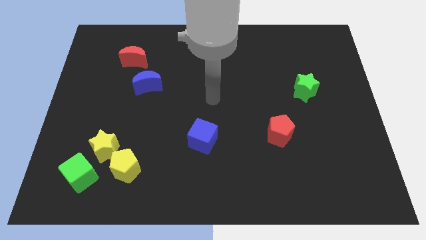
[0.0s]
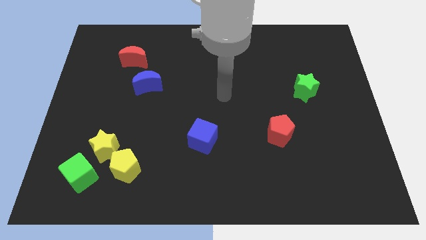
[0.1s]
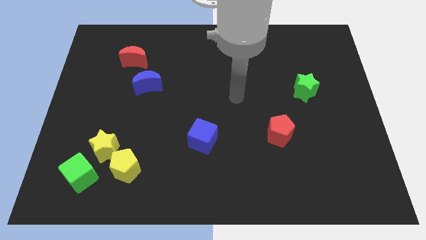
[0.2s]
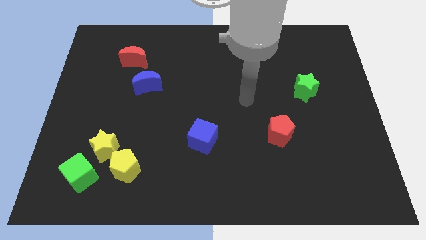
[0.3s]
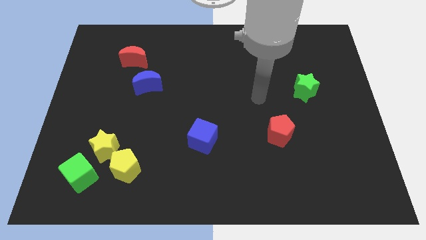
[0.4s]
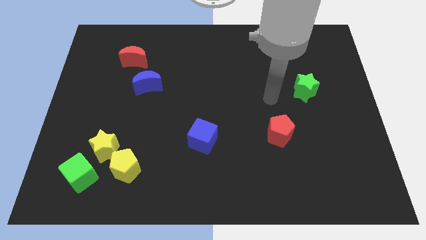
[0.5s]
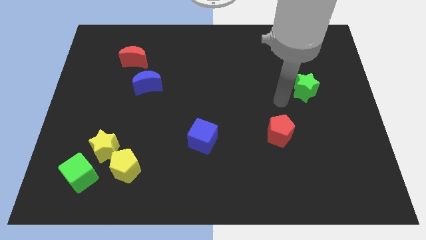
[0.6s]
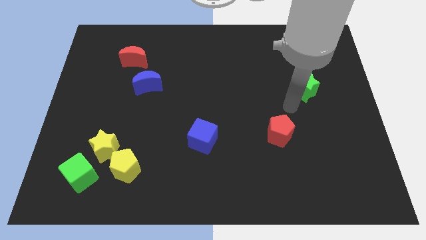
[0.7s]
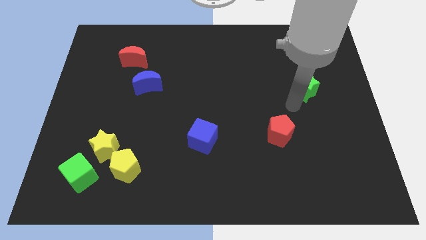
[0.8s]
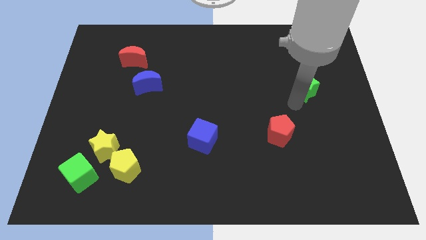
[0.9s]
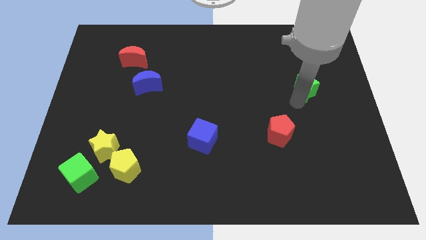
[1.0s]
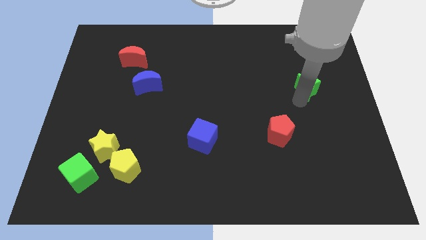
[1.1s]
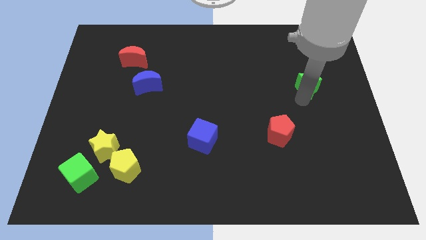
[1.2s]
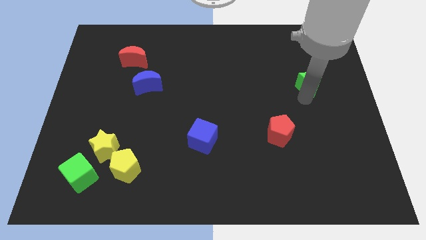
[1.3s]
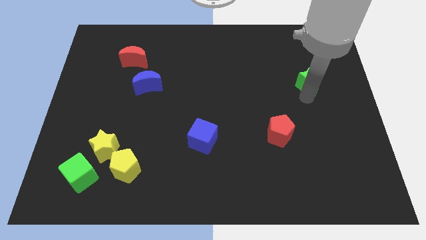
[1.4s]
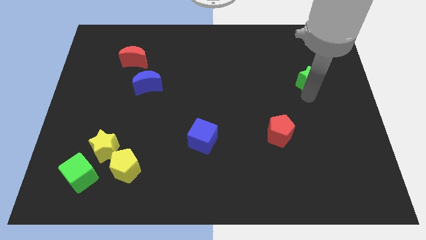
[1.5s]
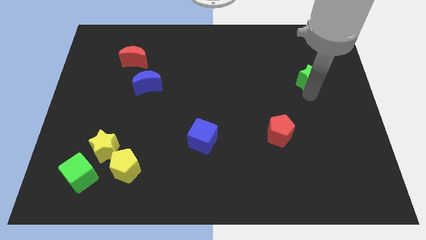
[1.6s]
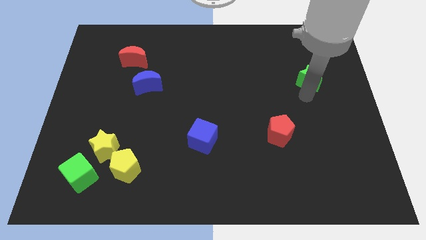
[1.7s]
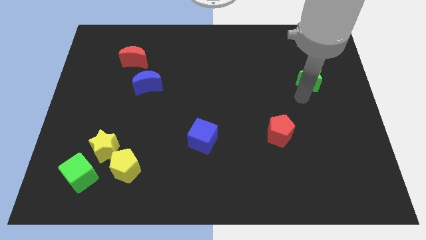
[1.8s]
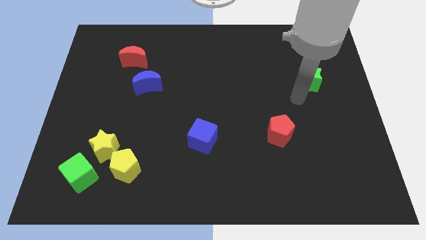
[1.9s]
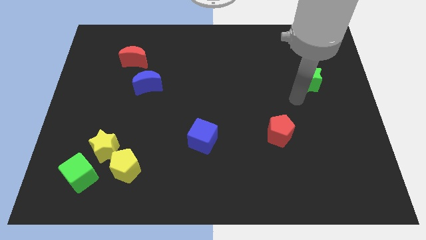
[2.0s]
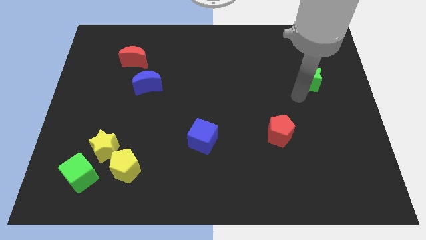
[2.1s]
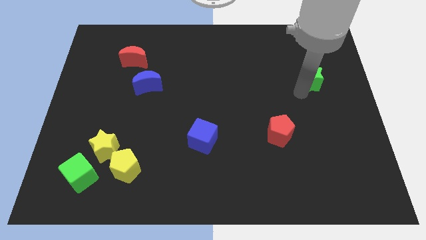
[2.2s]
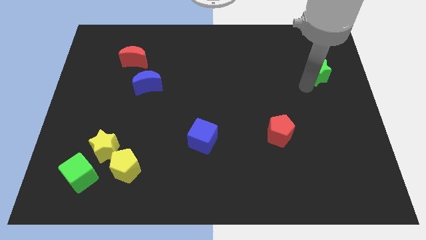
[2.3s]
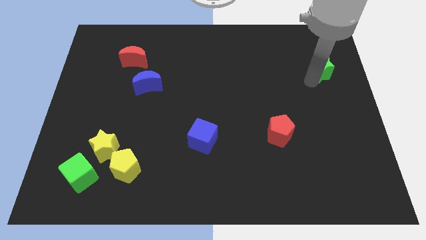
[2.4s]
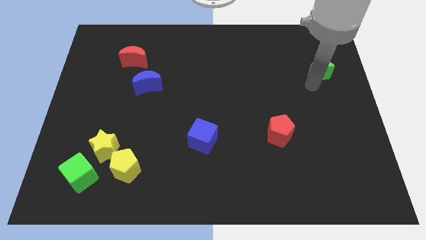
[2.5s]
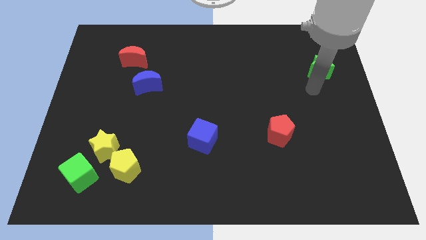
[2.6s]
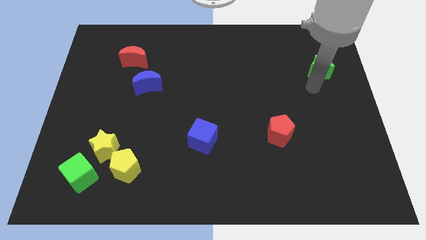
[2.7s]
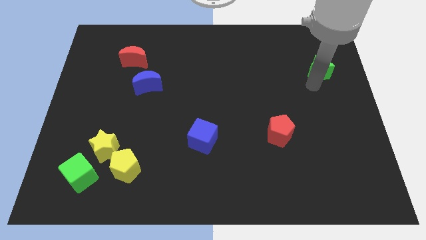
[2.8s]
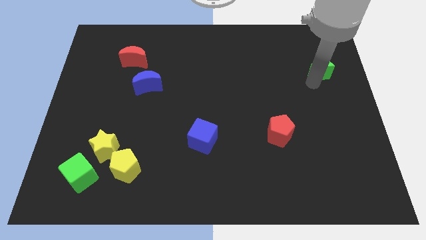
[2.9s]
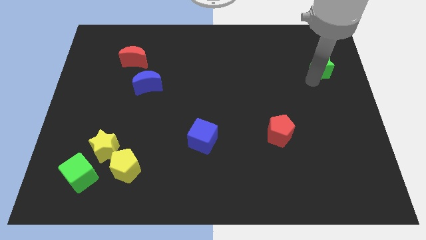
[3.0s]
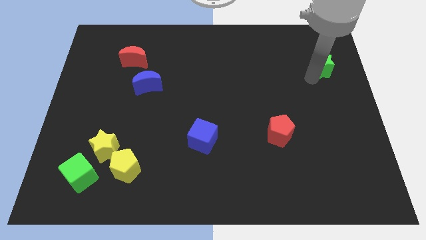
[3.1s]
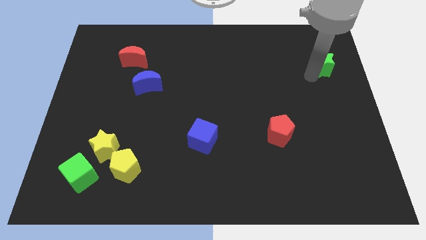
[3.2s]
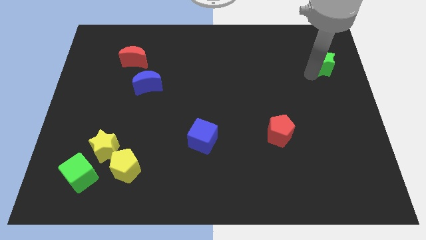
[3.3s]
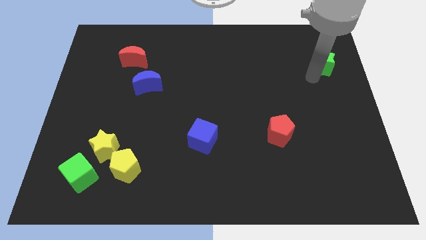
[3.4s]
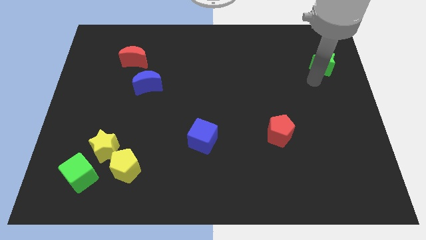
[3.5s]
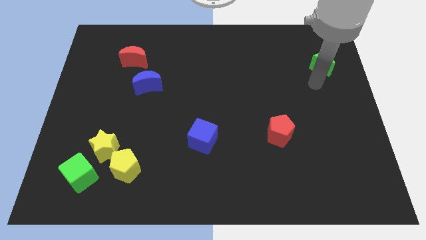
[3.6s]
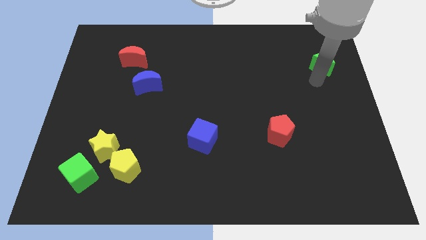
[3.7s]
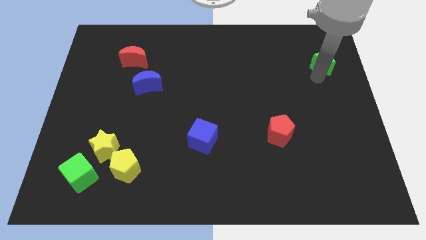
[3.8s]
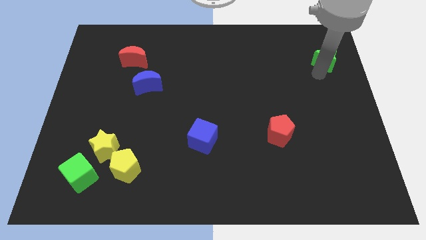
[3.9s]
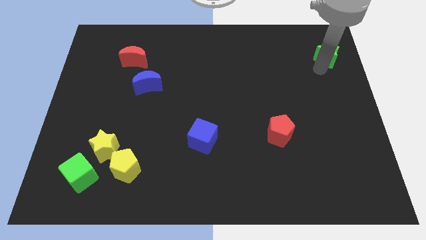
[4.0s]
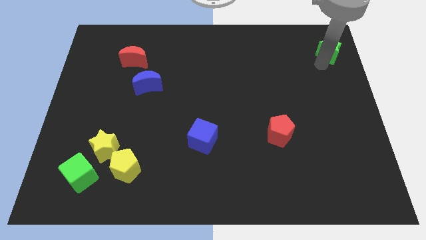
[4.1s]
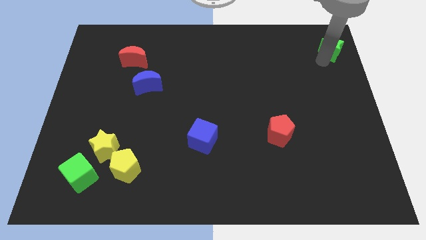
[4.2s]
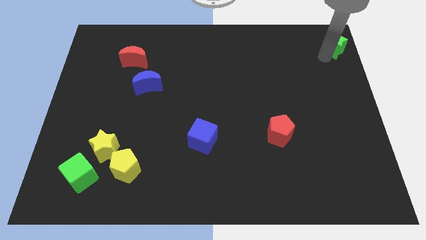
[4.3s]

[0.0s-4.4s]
slide the green star to the upper right corner

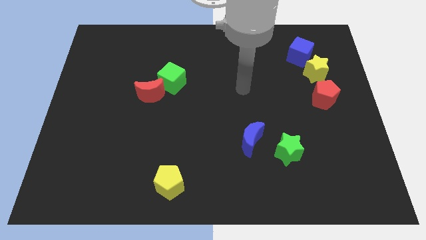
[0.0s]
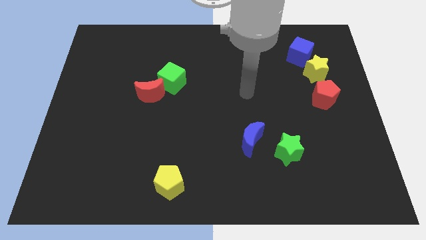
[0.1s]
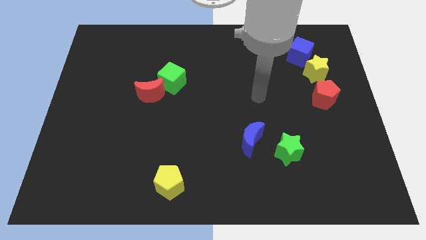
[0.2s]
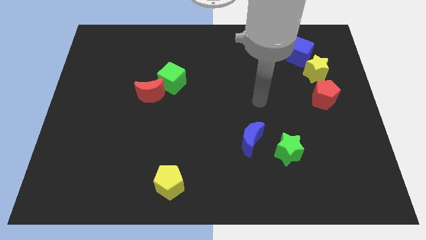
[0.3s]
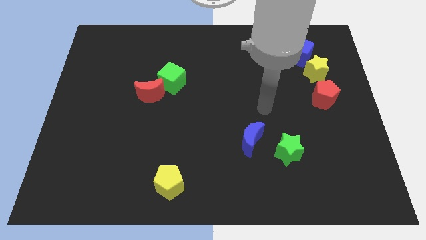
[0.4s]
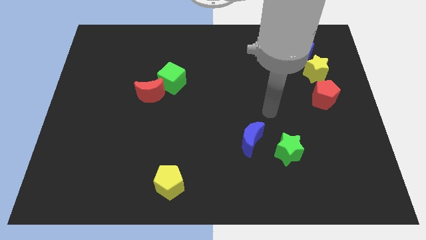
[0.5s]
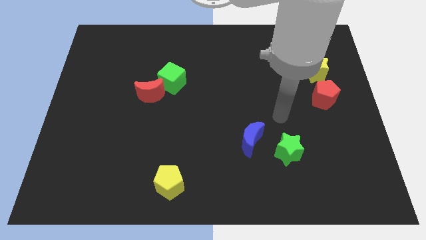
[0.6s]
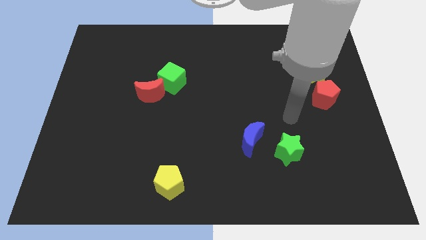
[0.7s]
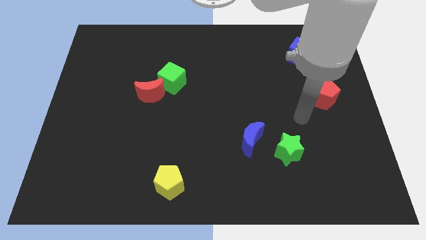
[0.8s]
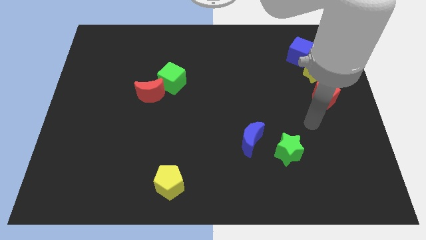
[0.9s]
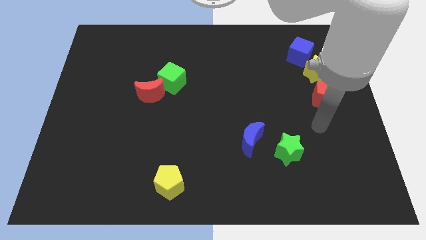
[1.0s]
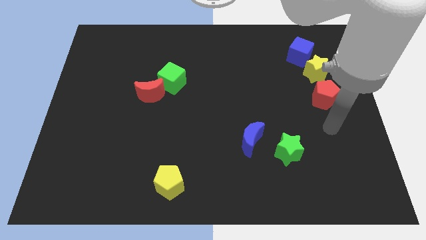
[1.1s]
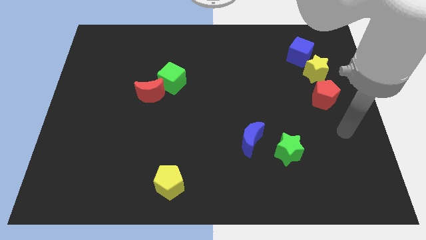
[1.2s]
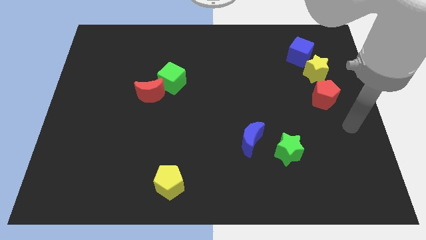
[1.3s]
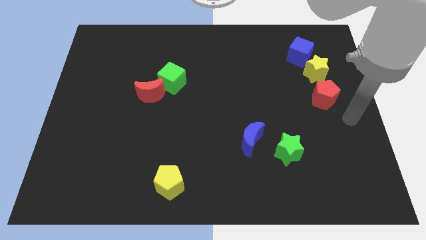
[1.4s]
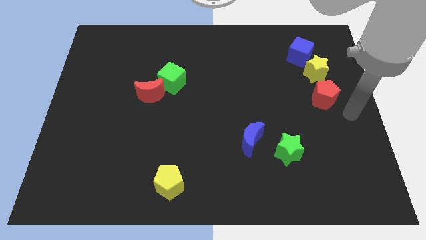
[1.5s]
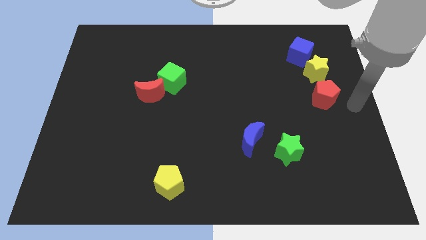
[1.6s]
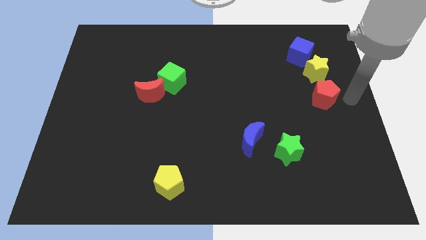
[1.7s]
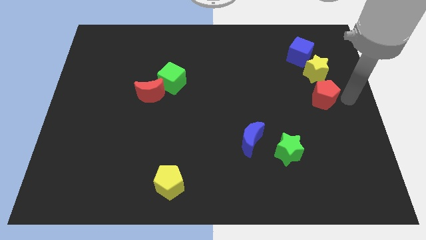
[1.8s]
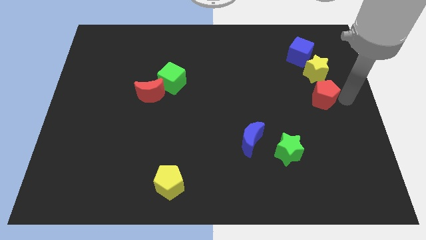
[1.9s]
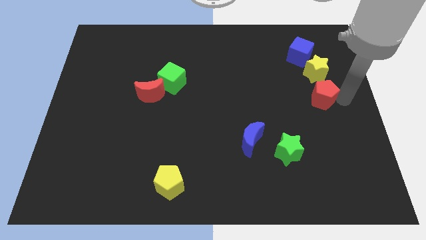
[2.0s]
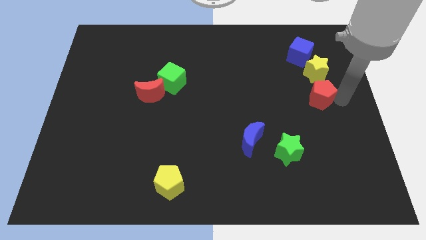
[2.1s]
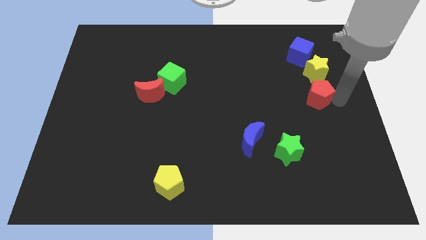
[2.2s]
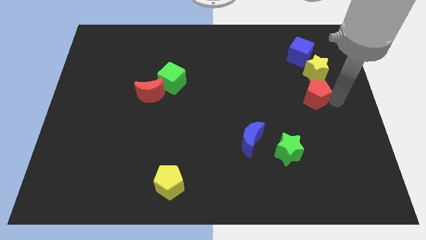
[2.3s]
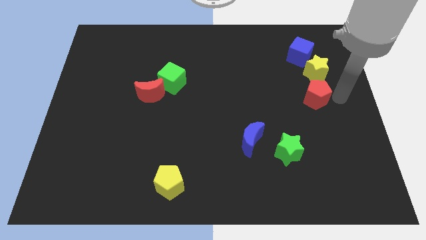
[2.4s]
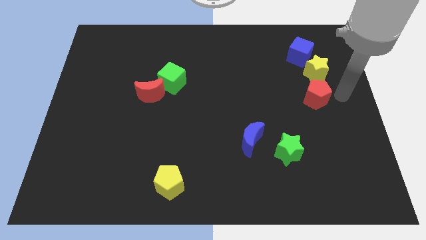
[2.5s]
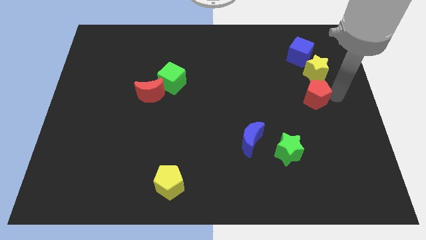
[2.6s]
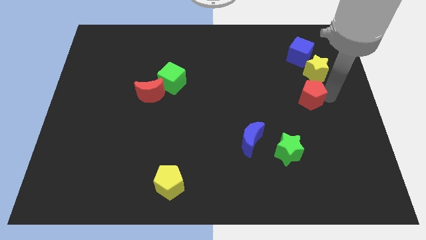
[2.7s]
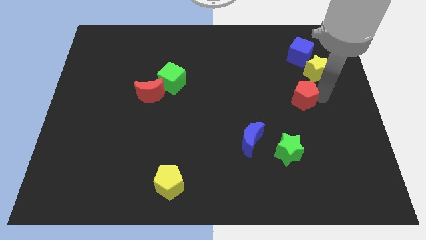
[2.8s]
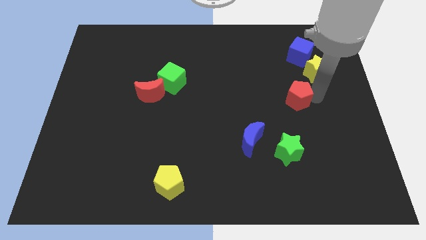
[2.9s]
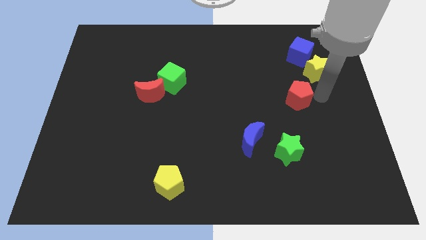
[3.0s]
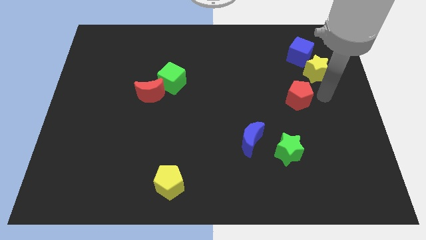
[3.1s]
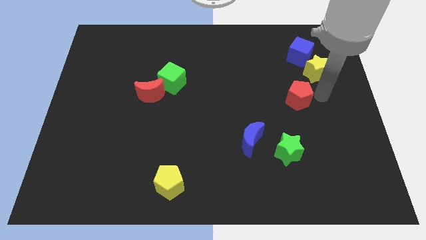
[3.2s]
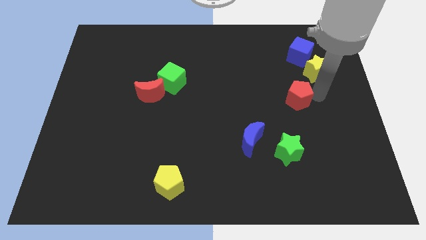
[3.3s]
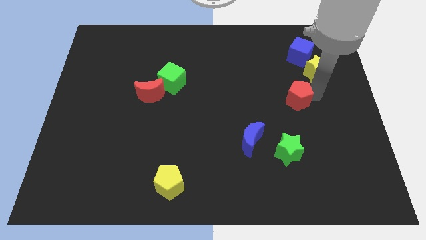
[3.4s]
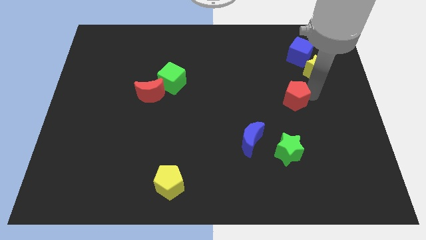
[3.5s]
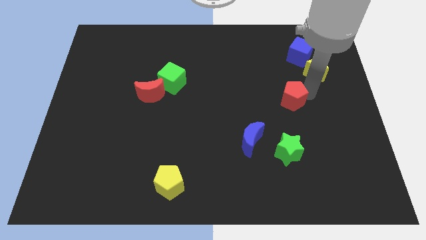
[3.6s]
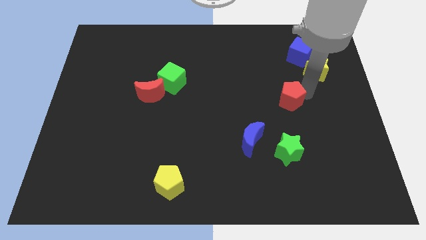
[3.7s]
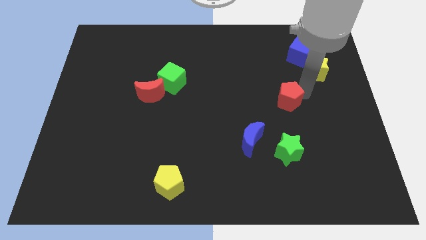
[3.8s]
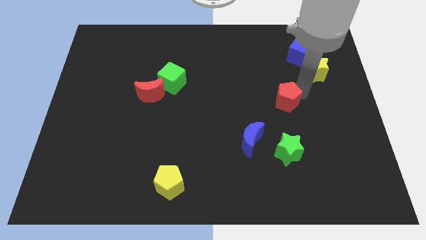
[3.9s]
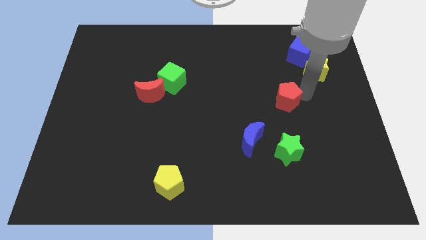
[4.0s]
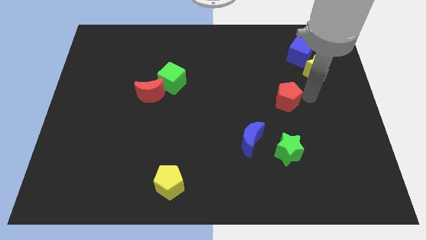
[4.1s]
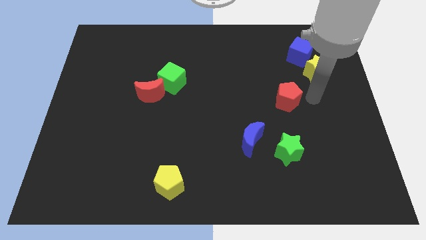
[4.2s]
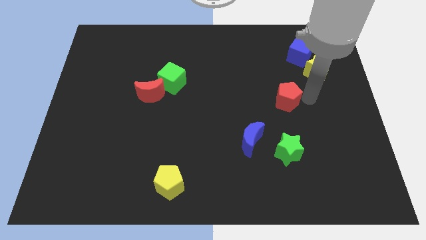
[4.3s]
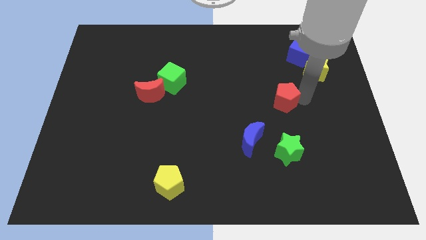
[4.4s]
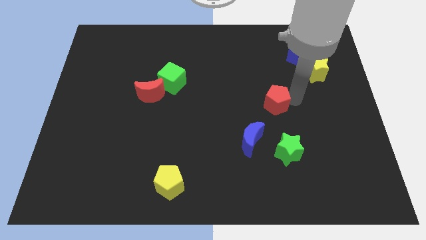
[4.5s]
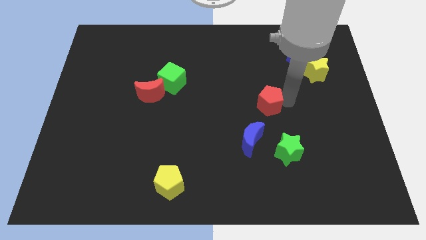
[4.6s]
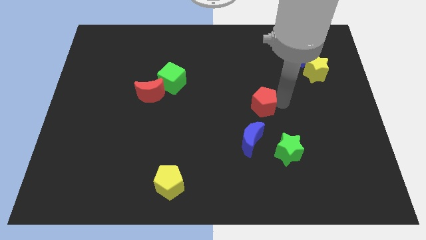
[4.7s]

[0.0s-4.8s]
put the red pentagon to the middle
